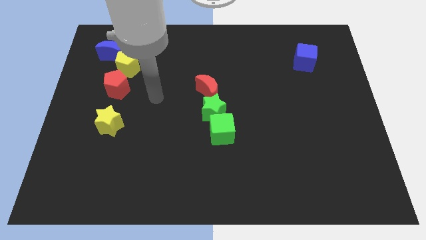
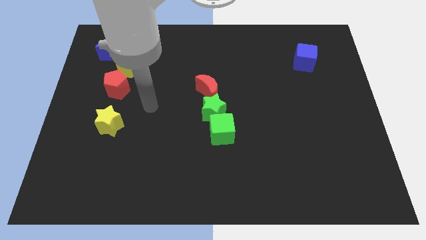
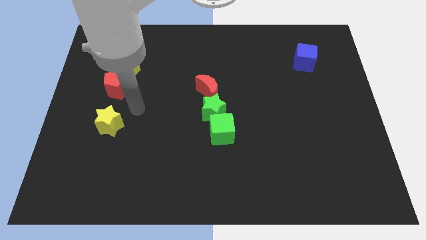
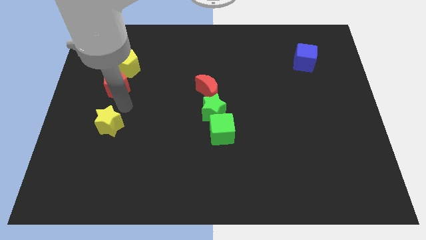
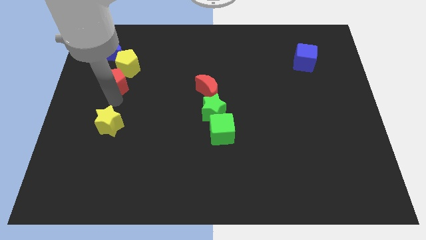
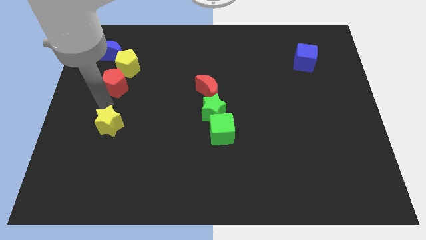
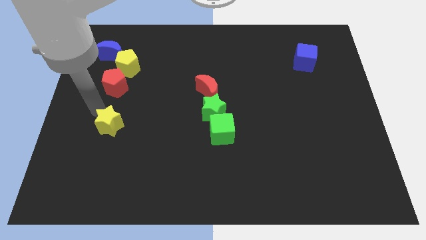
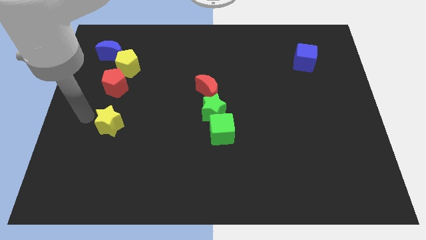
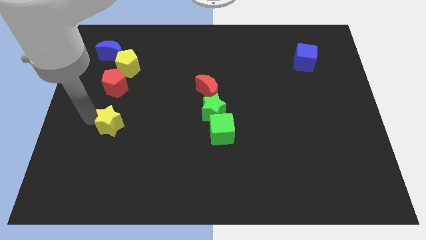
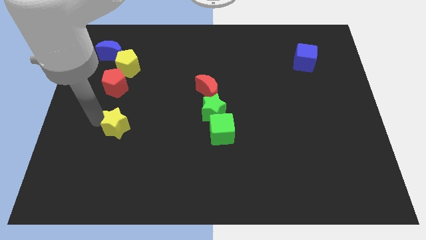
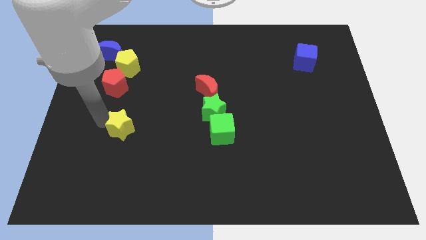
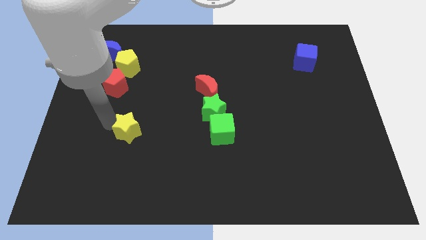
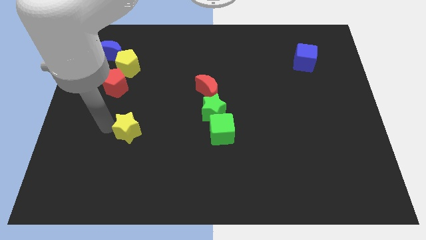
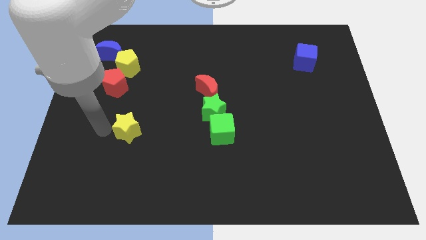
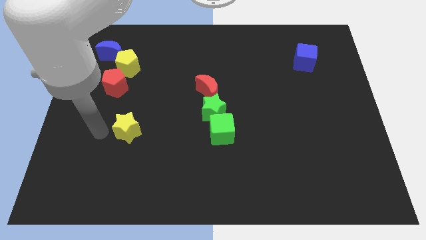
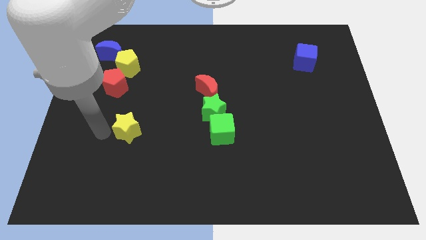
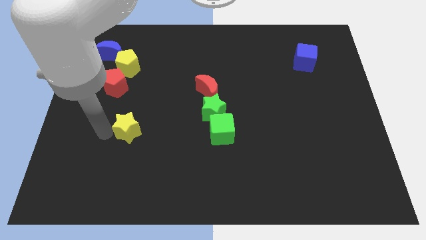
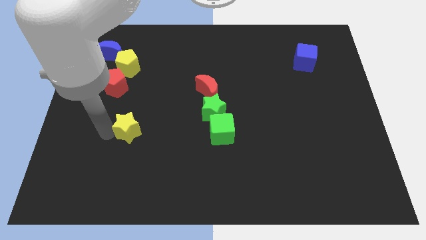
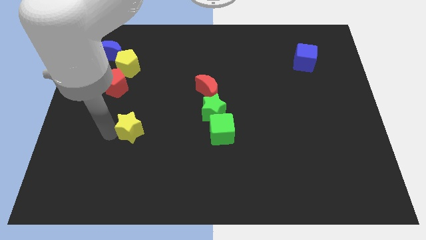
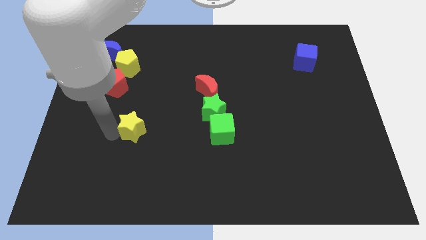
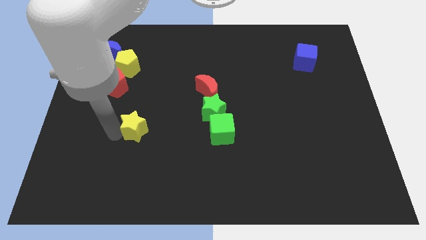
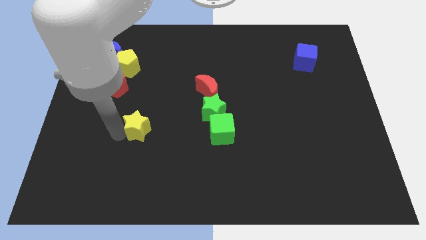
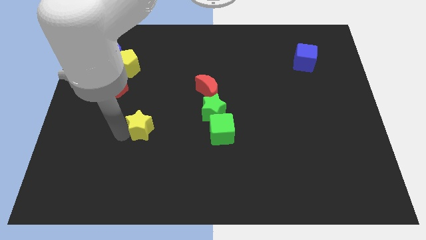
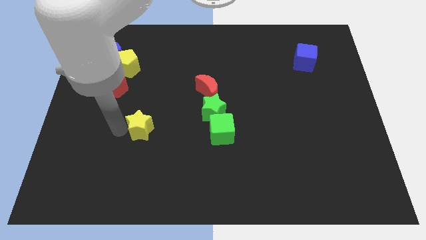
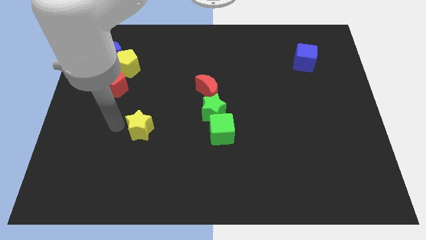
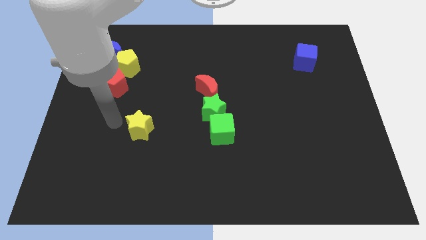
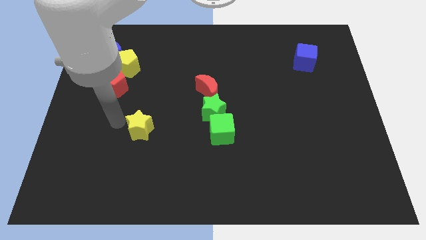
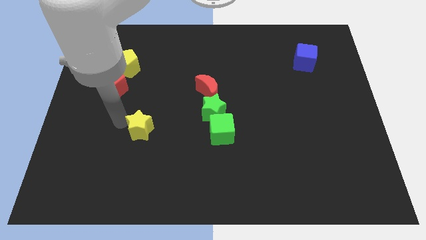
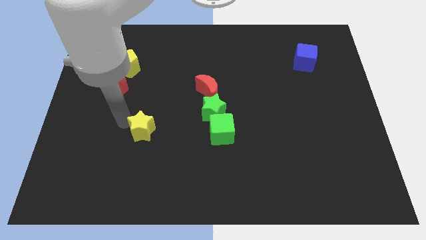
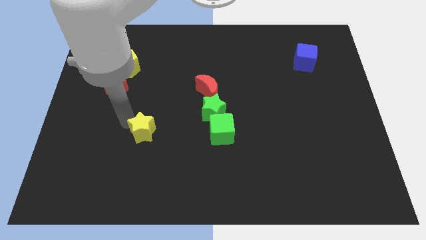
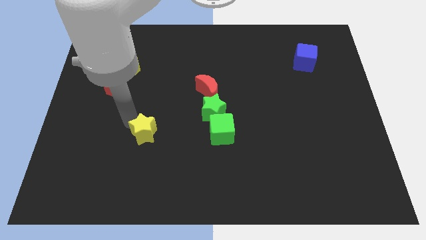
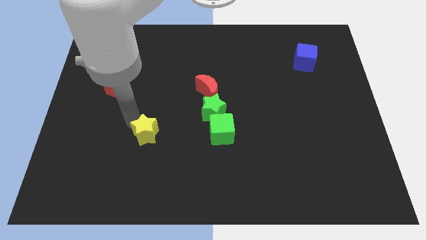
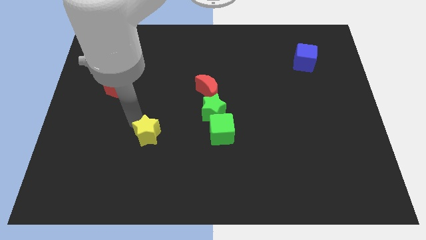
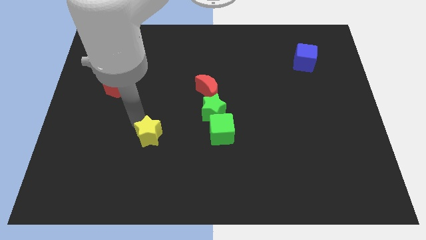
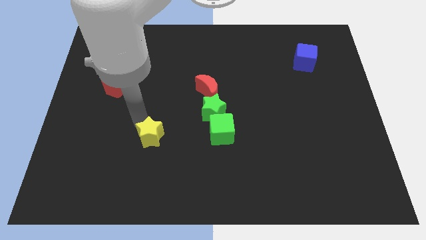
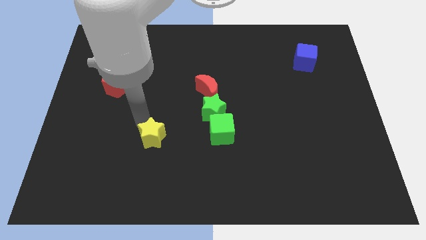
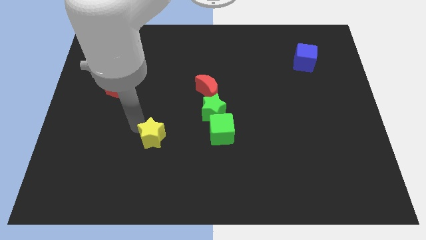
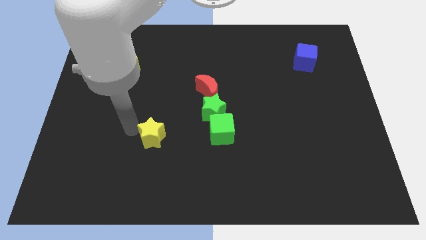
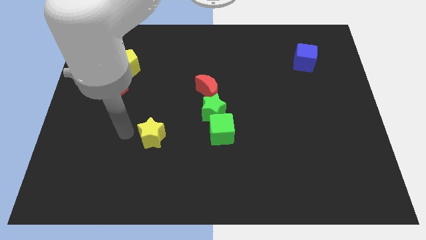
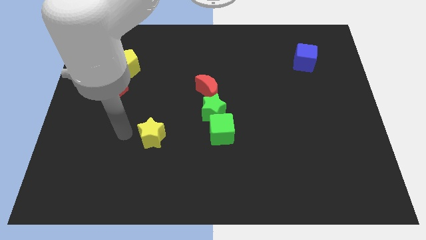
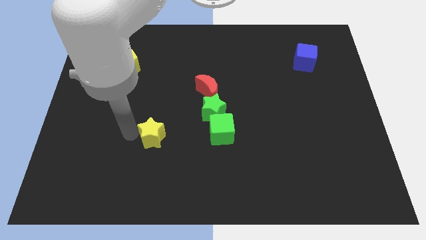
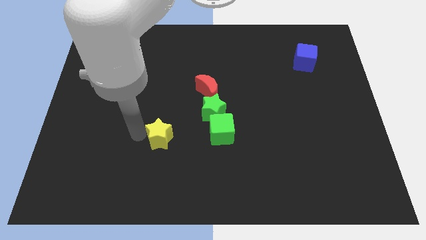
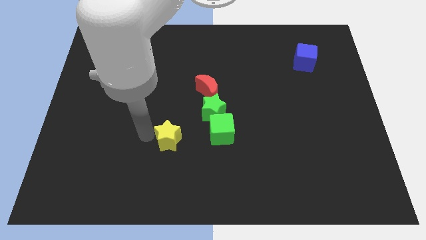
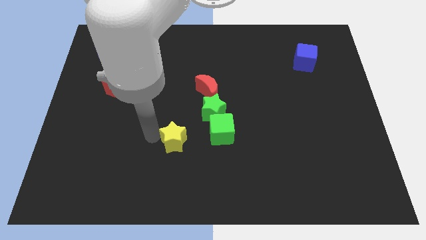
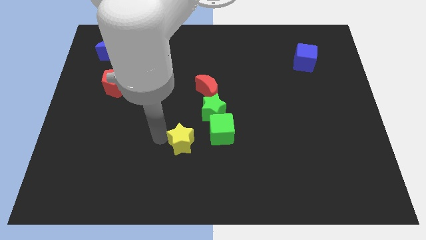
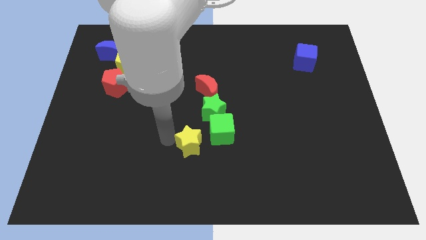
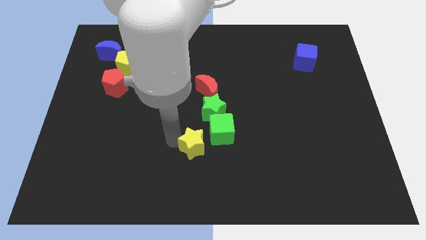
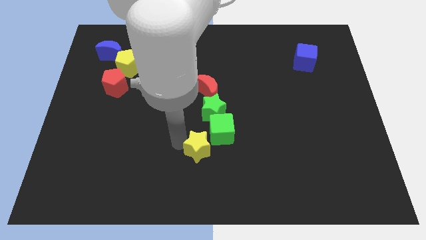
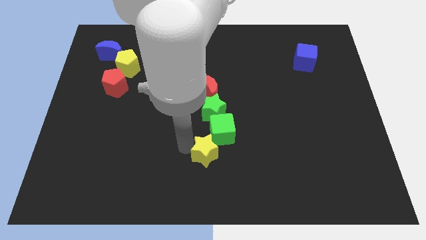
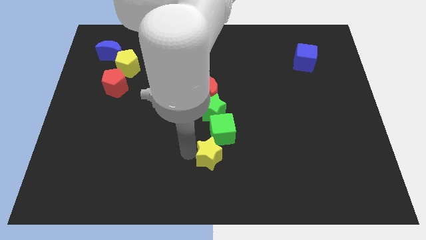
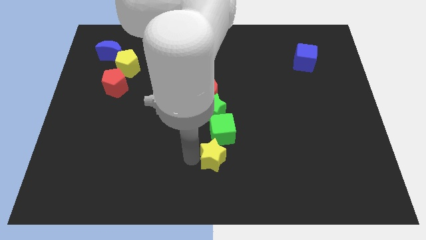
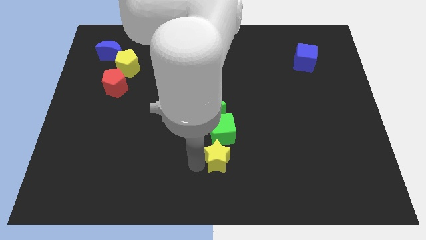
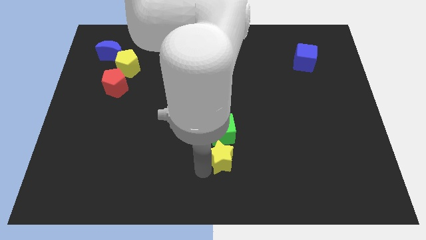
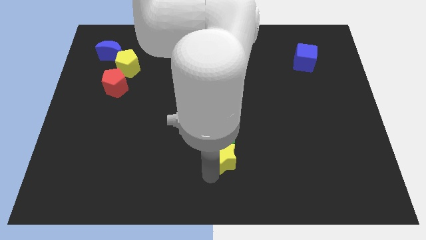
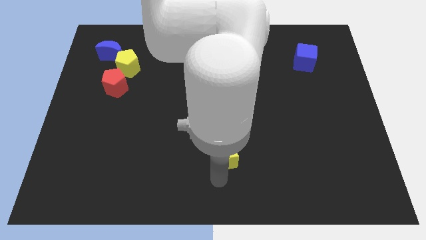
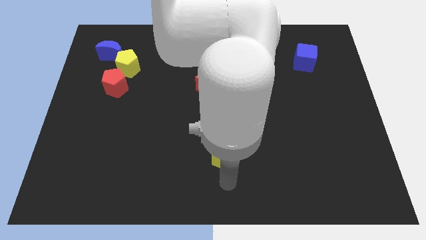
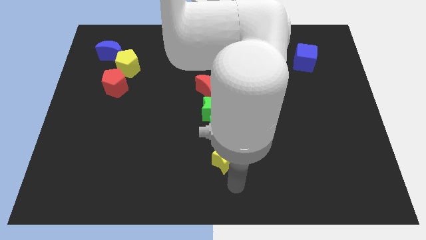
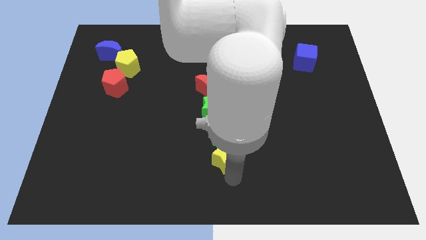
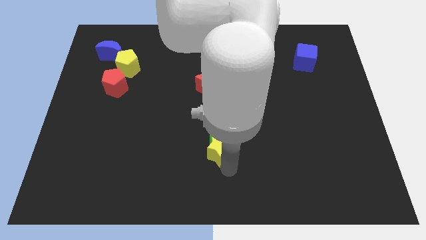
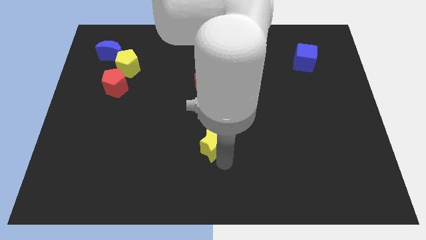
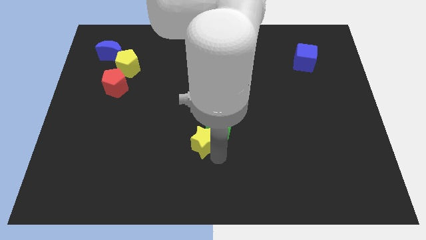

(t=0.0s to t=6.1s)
slide the yellow star below the red moon

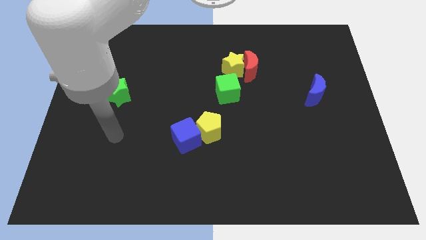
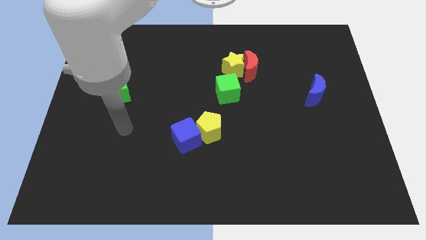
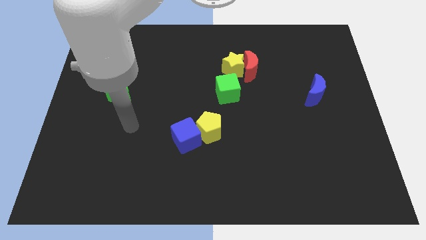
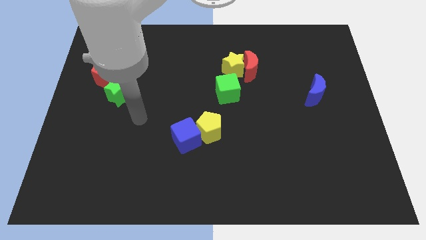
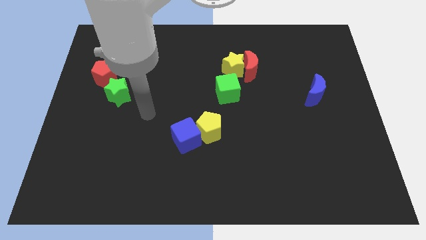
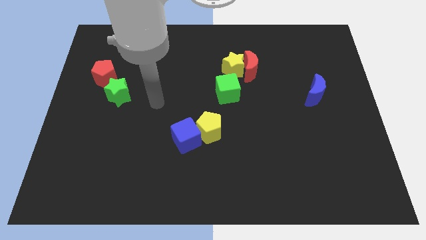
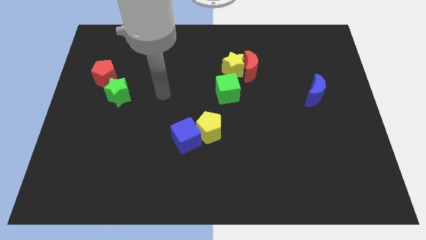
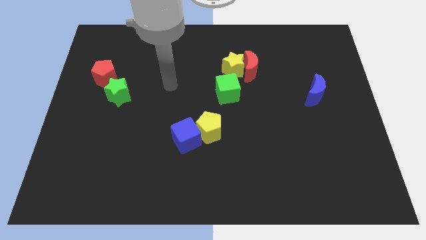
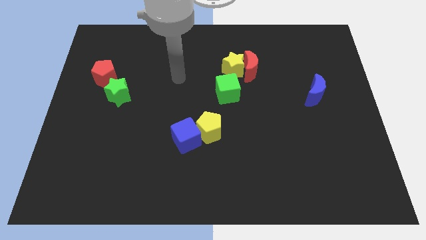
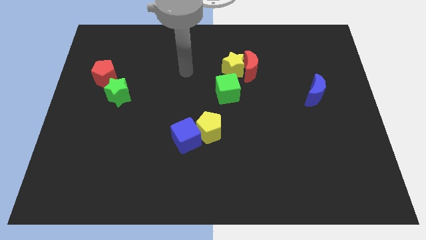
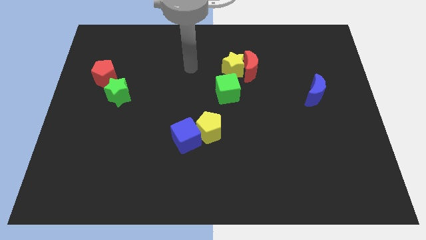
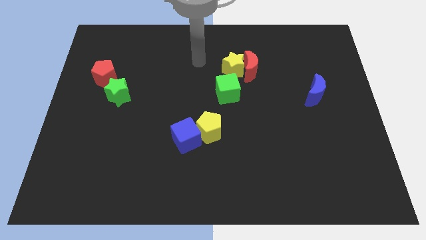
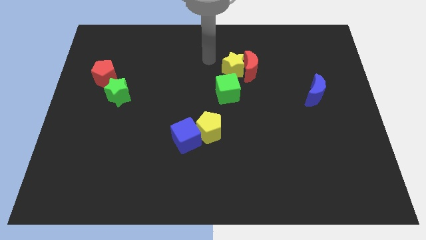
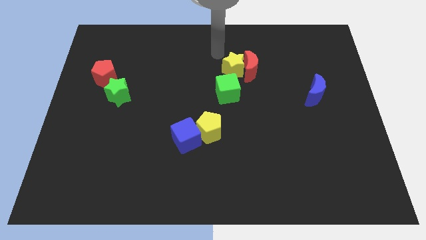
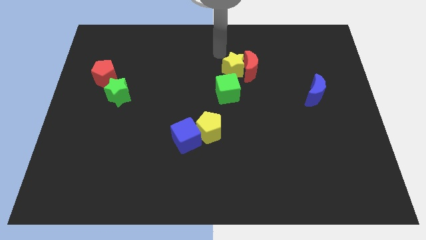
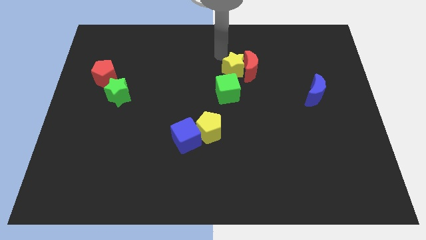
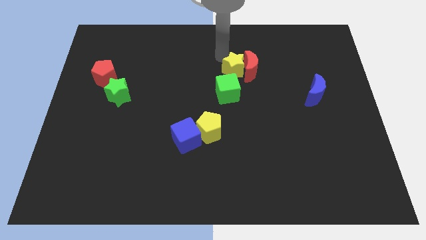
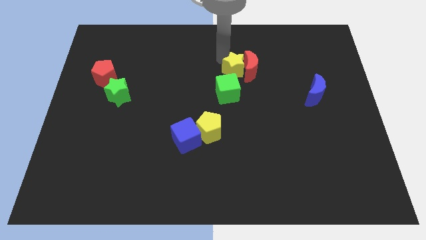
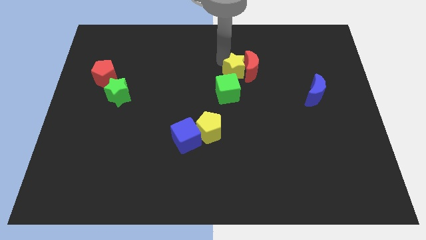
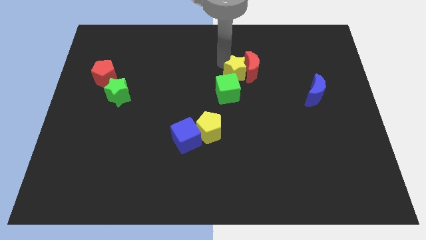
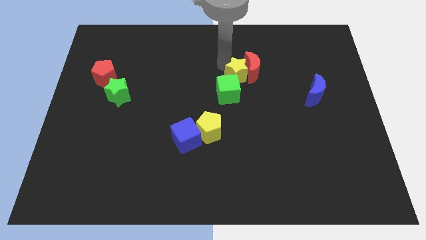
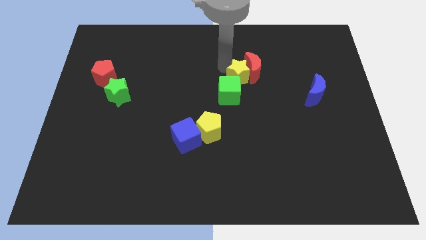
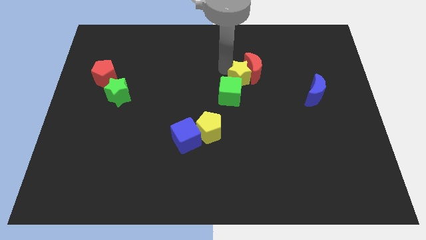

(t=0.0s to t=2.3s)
put the yellow star below the red moon
